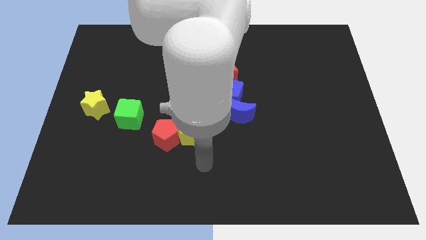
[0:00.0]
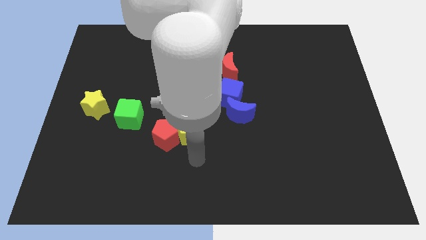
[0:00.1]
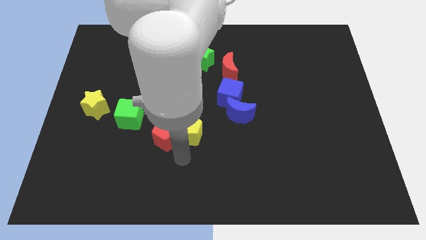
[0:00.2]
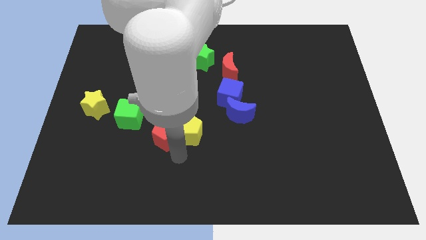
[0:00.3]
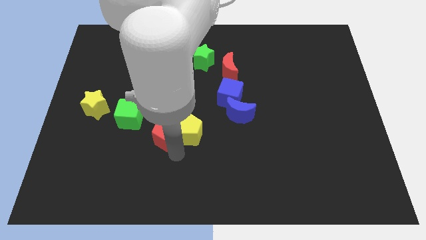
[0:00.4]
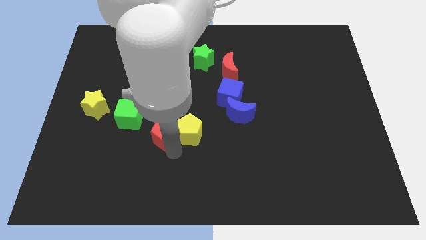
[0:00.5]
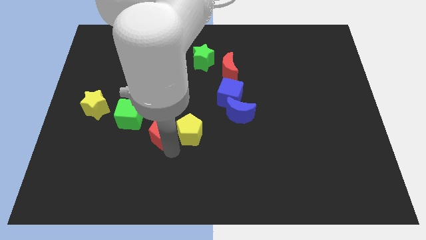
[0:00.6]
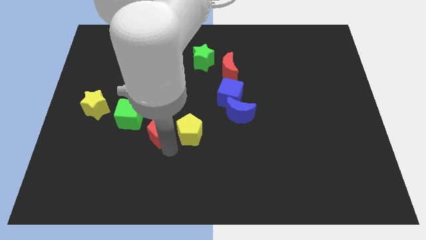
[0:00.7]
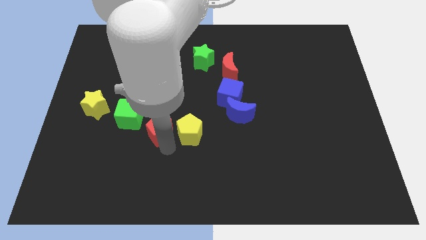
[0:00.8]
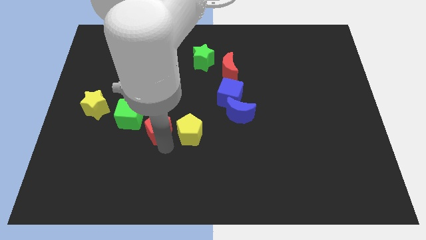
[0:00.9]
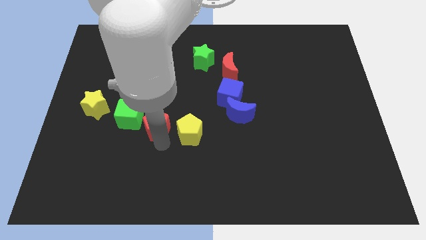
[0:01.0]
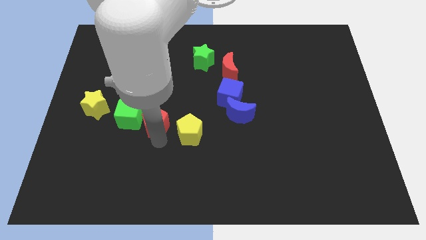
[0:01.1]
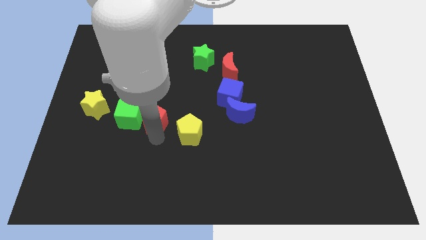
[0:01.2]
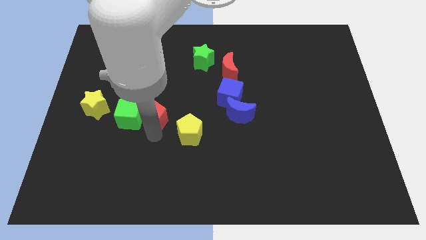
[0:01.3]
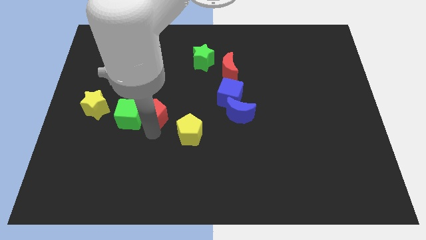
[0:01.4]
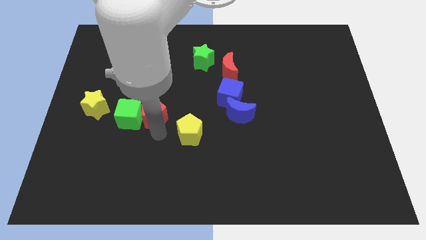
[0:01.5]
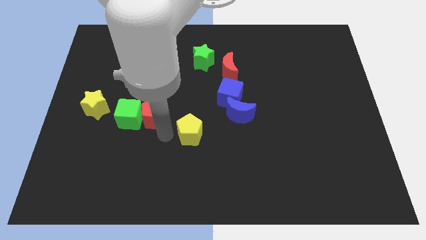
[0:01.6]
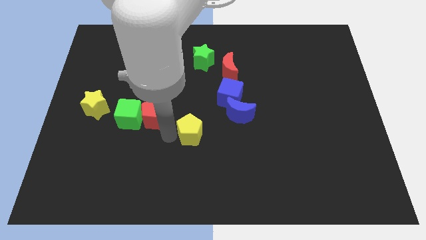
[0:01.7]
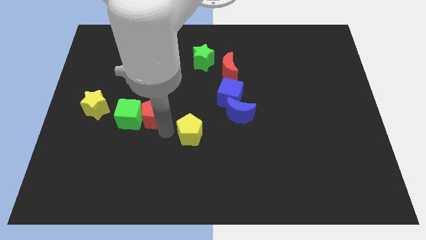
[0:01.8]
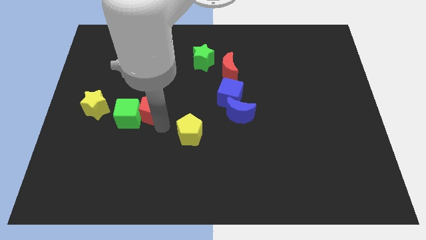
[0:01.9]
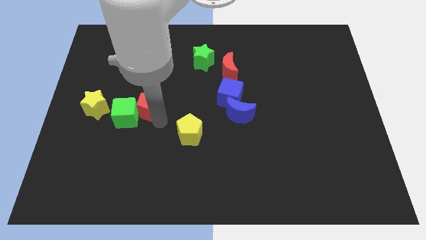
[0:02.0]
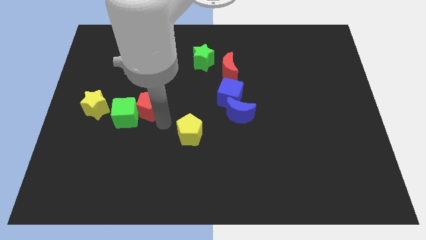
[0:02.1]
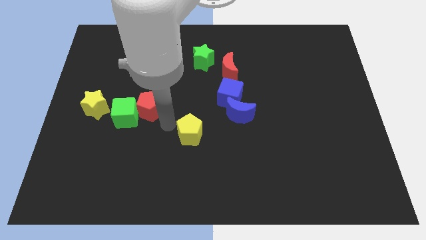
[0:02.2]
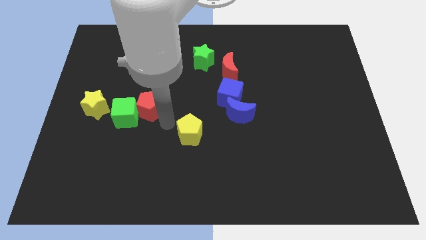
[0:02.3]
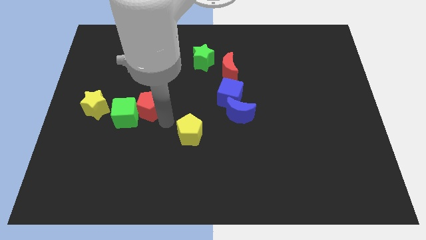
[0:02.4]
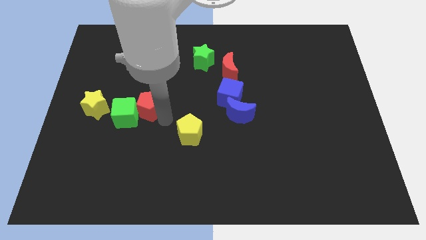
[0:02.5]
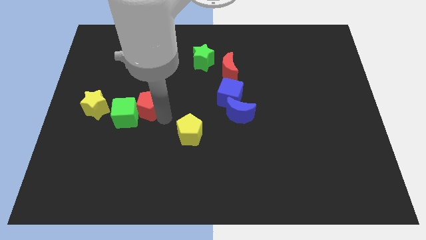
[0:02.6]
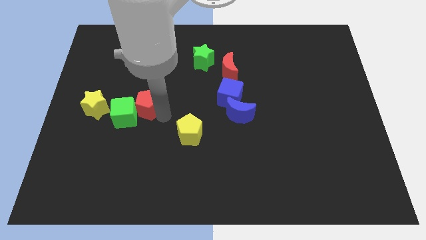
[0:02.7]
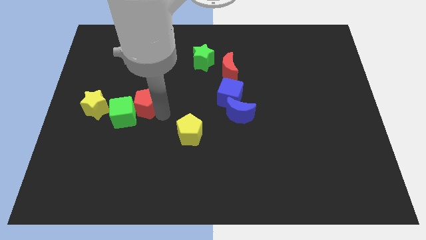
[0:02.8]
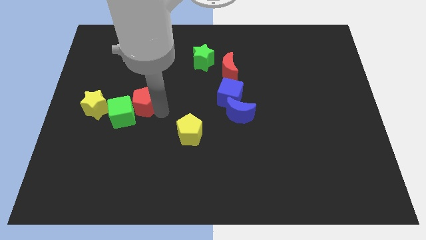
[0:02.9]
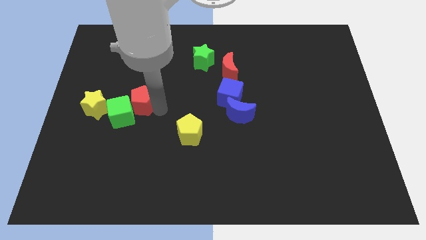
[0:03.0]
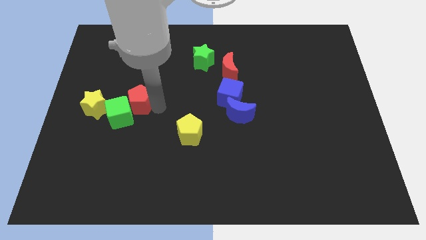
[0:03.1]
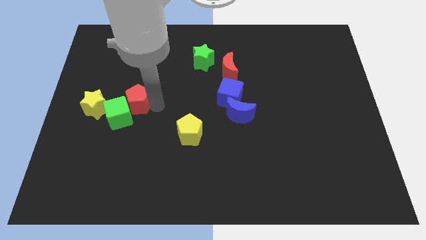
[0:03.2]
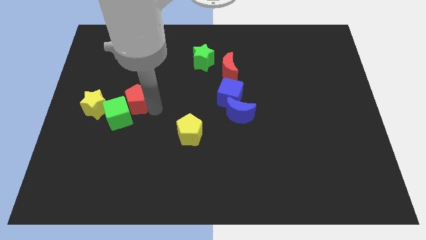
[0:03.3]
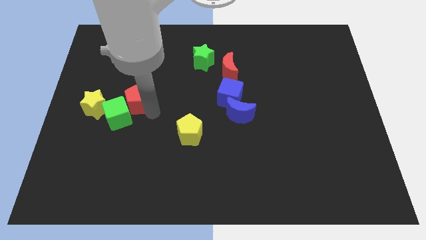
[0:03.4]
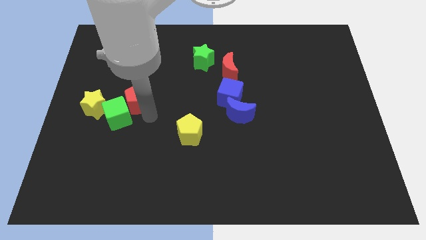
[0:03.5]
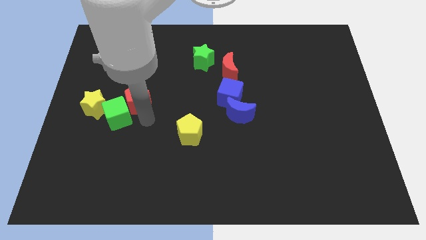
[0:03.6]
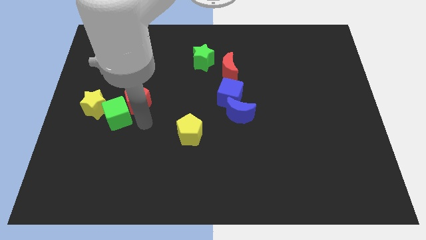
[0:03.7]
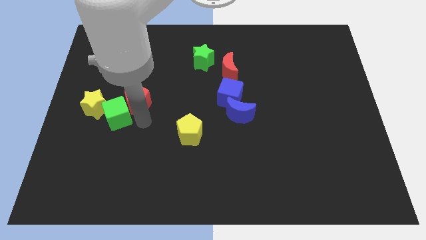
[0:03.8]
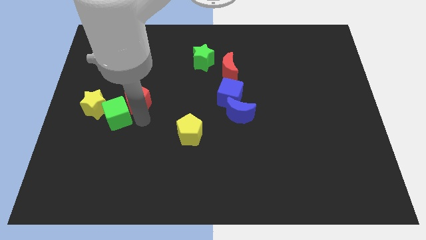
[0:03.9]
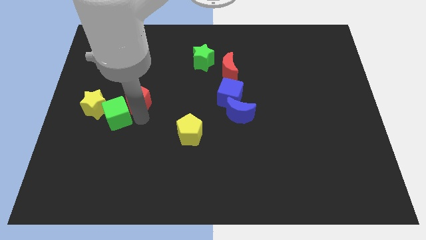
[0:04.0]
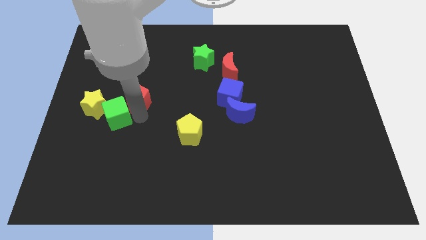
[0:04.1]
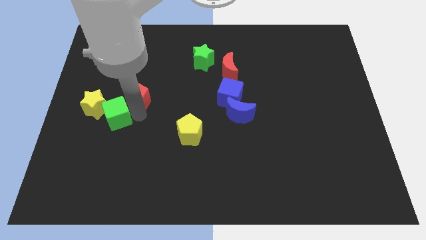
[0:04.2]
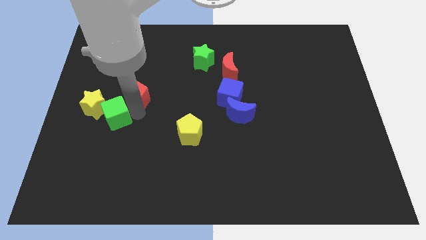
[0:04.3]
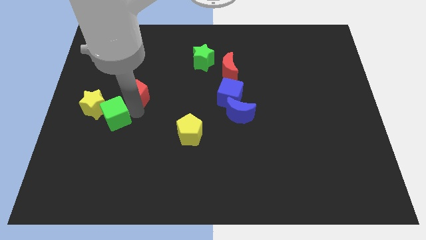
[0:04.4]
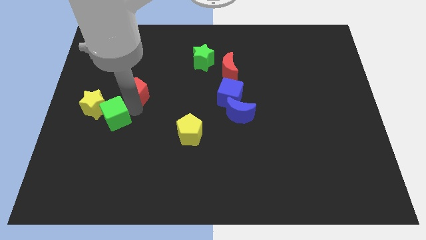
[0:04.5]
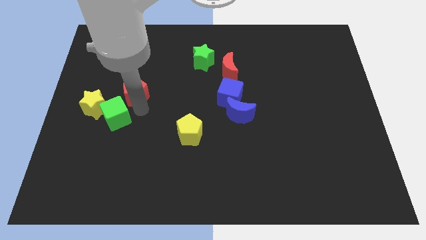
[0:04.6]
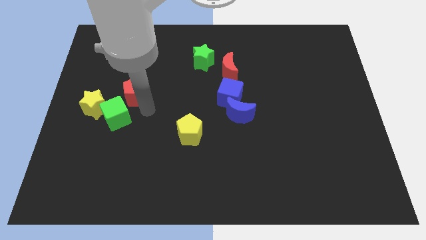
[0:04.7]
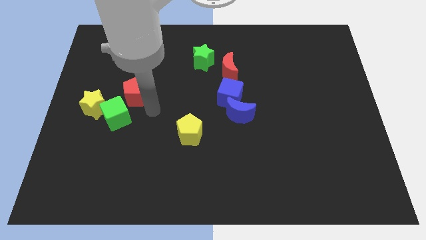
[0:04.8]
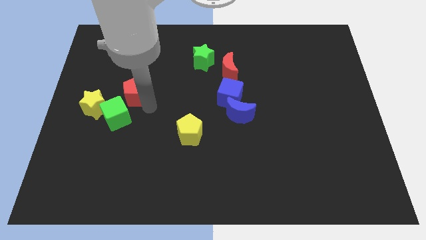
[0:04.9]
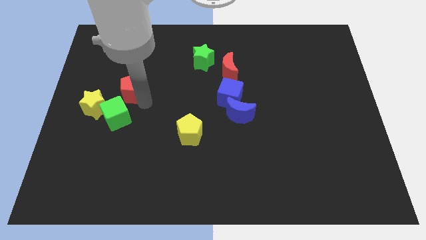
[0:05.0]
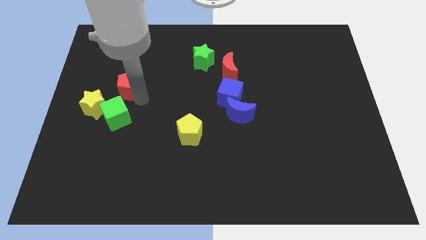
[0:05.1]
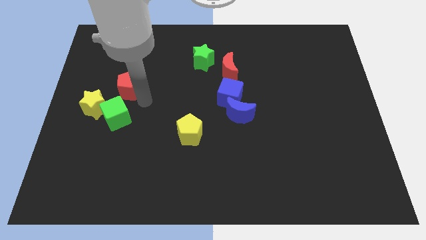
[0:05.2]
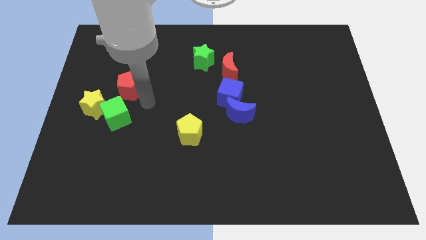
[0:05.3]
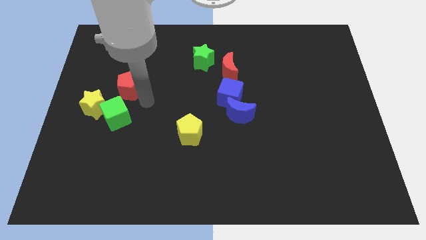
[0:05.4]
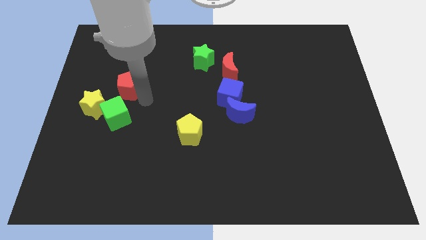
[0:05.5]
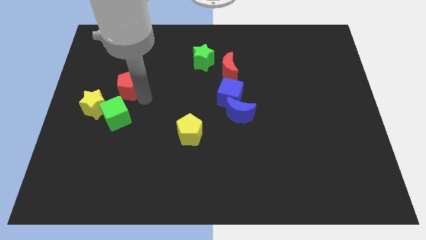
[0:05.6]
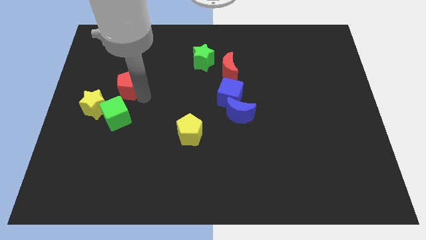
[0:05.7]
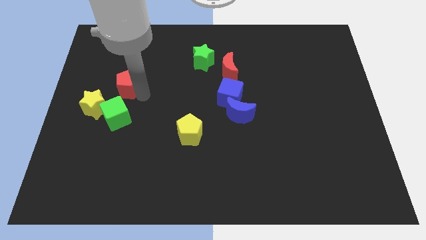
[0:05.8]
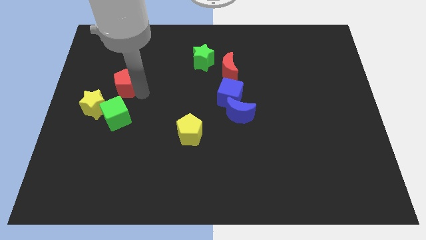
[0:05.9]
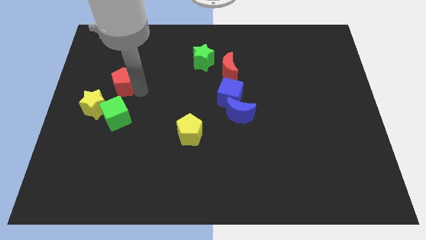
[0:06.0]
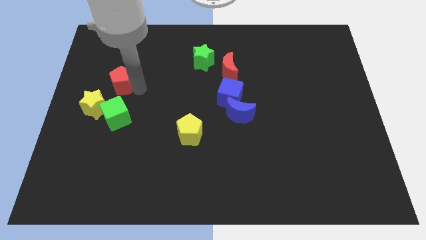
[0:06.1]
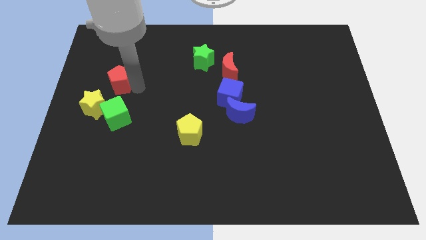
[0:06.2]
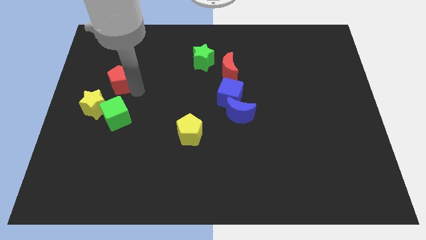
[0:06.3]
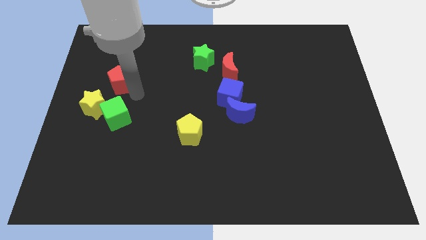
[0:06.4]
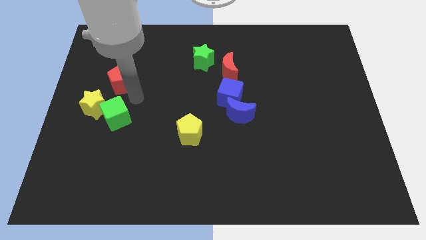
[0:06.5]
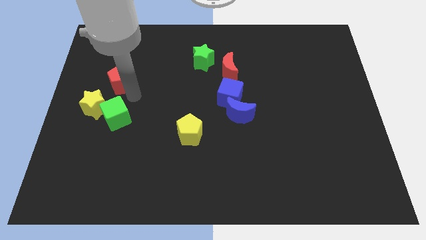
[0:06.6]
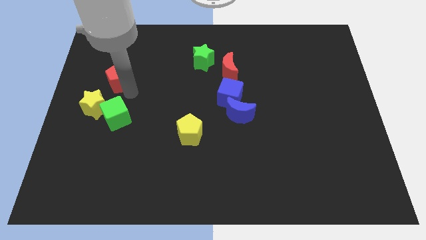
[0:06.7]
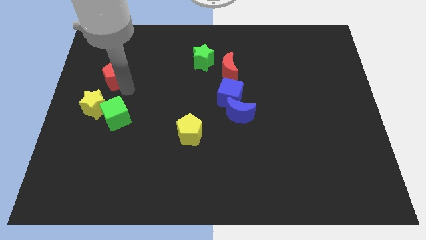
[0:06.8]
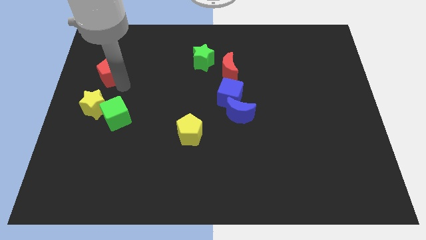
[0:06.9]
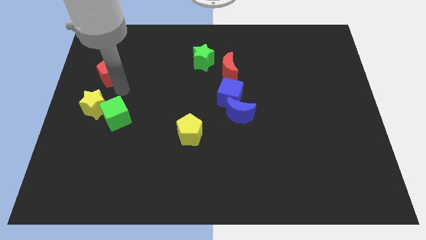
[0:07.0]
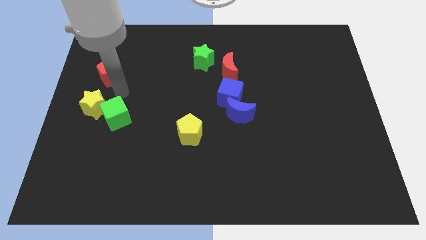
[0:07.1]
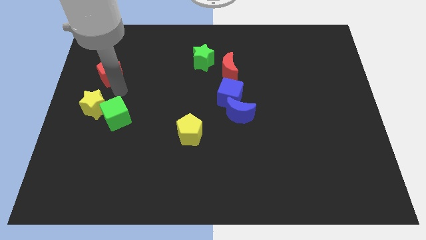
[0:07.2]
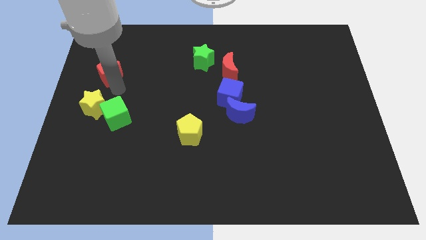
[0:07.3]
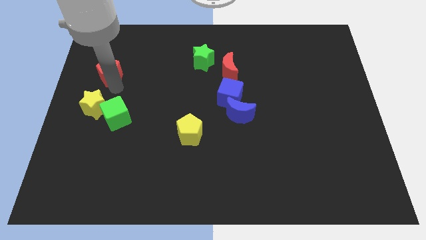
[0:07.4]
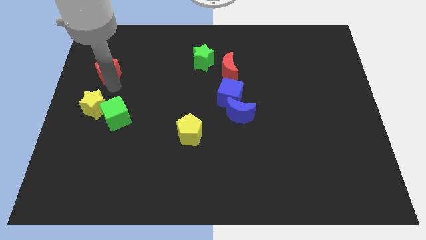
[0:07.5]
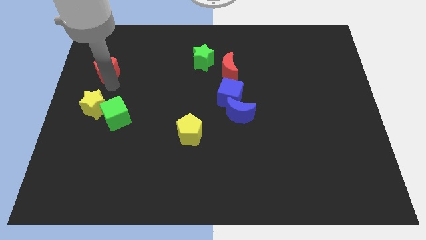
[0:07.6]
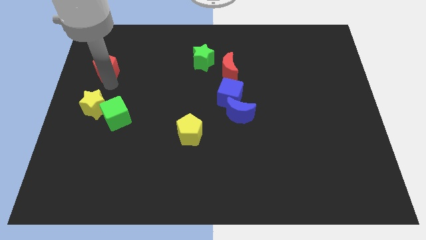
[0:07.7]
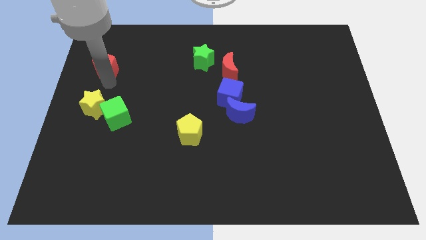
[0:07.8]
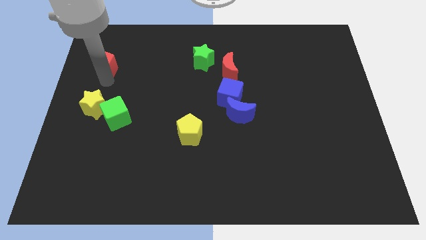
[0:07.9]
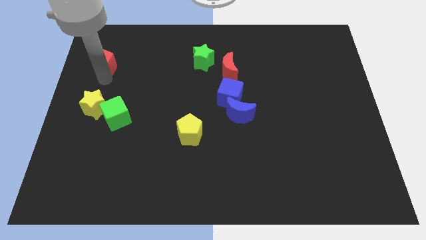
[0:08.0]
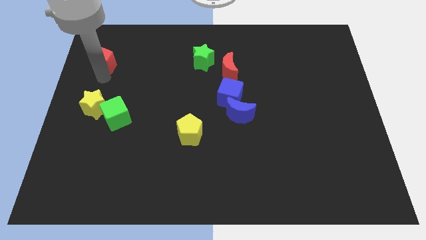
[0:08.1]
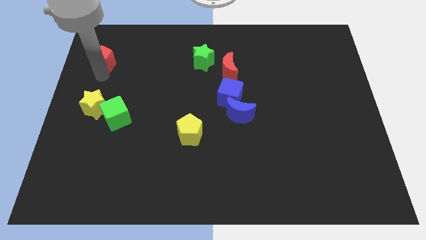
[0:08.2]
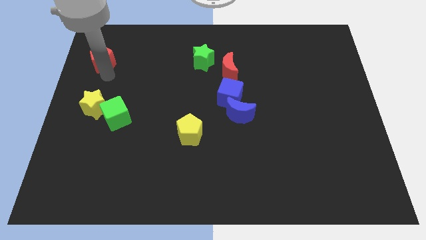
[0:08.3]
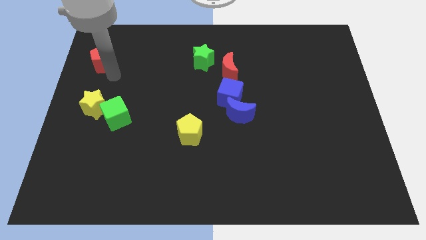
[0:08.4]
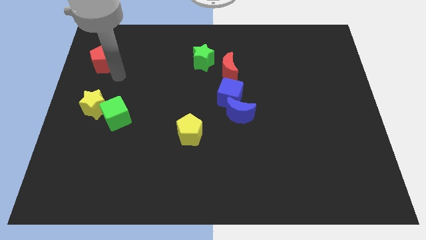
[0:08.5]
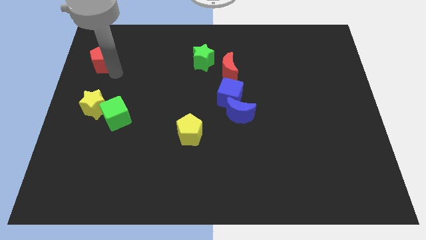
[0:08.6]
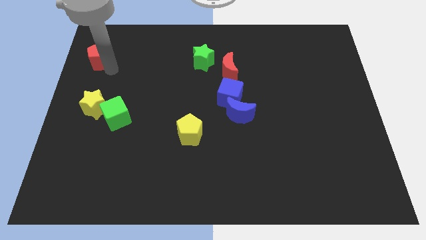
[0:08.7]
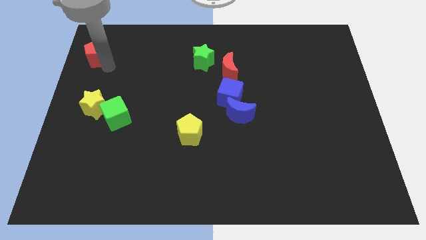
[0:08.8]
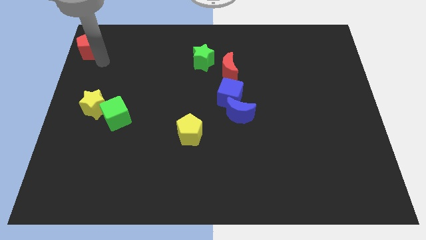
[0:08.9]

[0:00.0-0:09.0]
move the red pentagon to the top left
